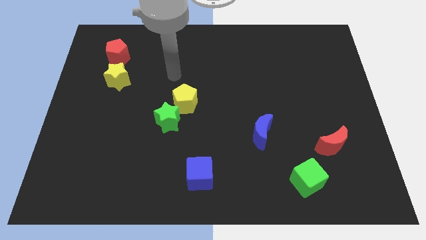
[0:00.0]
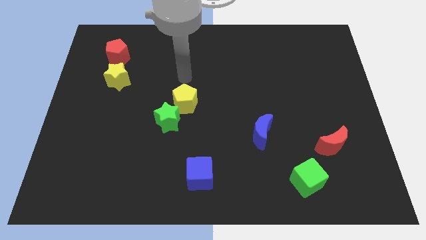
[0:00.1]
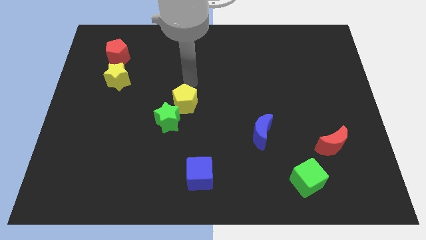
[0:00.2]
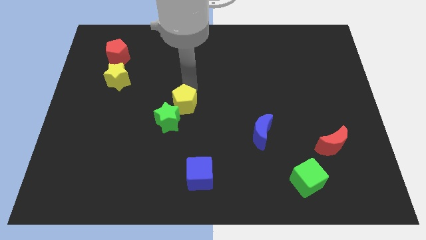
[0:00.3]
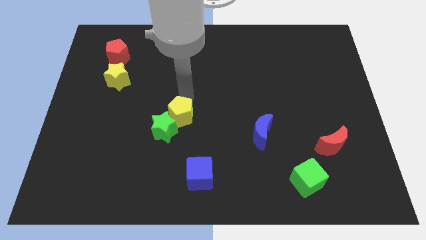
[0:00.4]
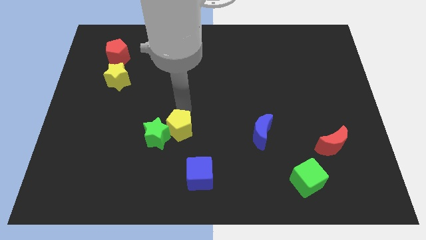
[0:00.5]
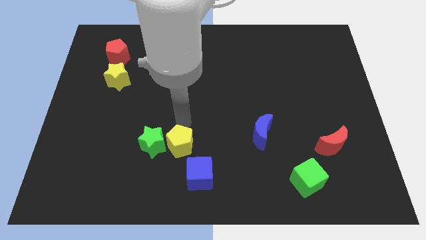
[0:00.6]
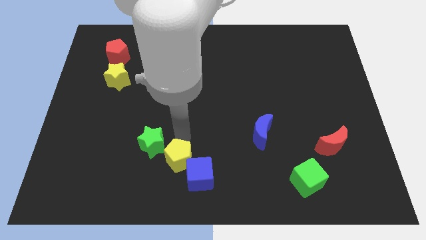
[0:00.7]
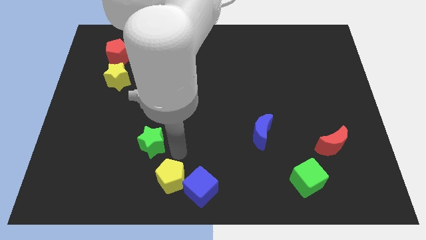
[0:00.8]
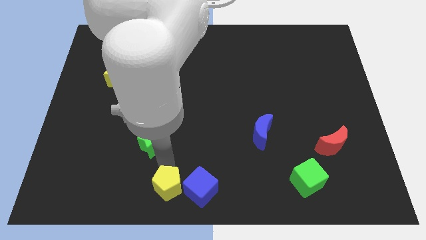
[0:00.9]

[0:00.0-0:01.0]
pull the green star apart from the yellow pentagon

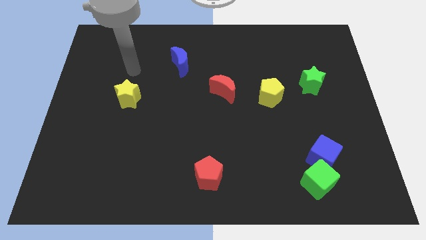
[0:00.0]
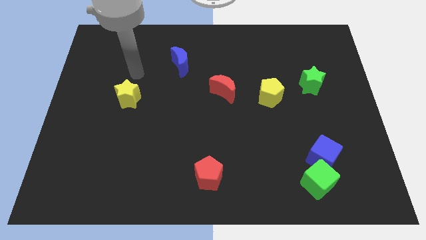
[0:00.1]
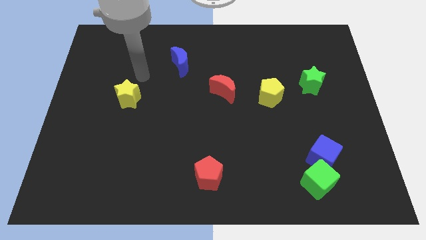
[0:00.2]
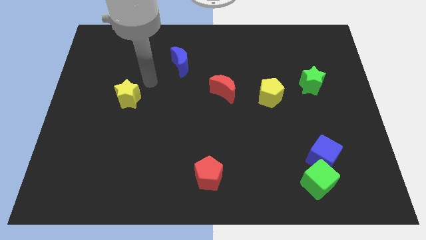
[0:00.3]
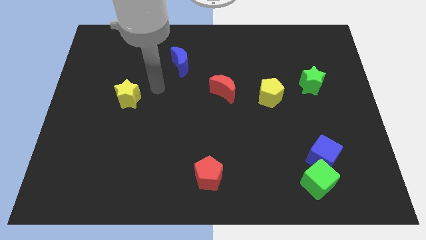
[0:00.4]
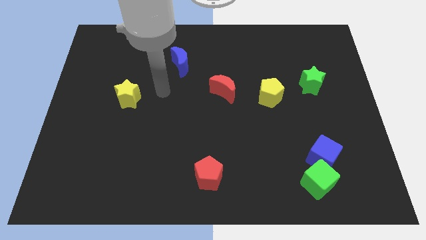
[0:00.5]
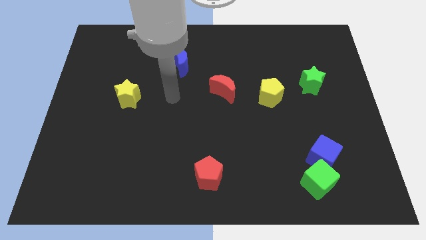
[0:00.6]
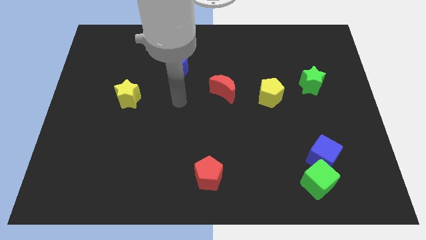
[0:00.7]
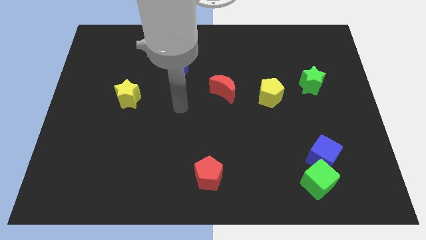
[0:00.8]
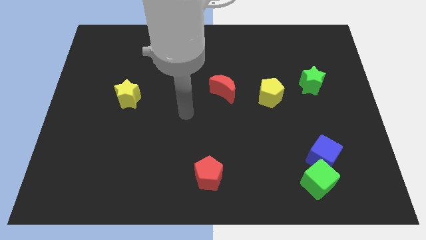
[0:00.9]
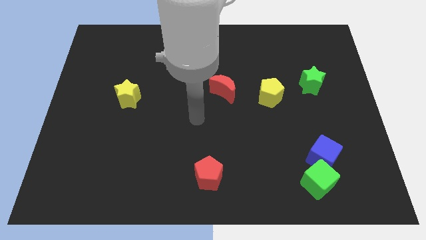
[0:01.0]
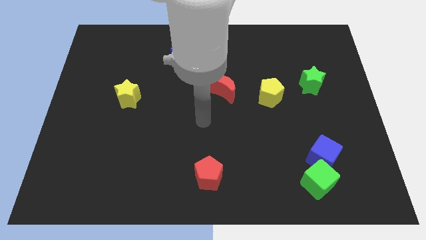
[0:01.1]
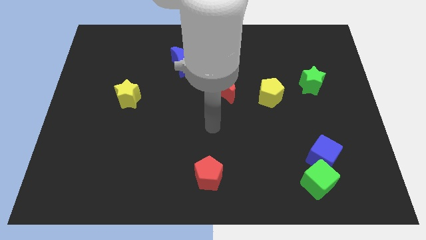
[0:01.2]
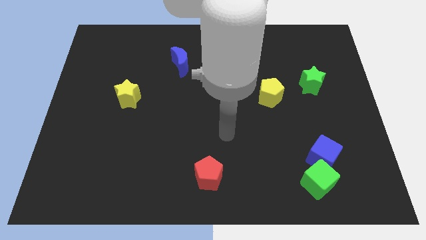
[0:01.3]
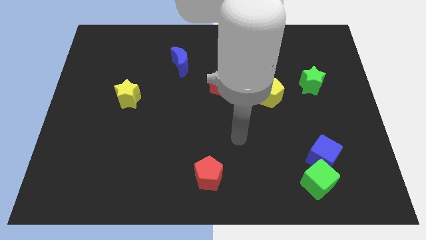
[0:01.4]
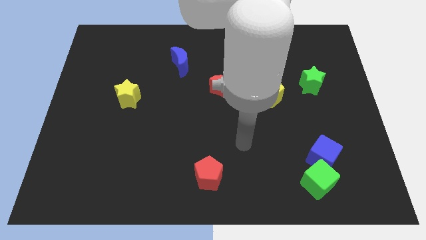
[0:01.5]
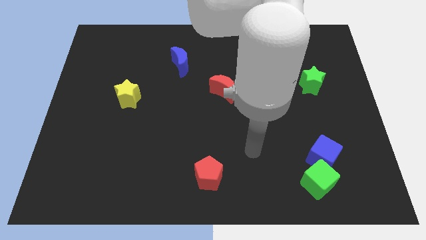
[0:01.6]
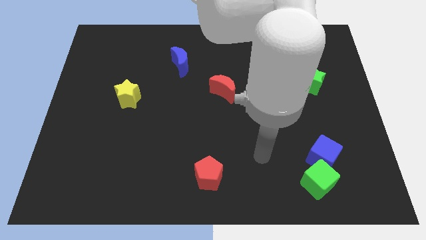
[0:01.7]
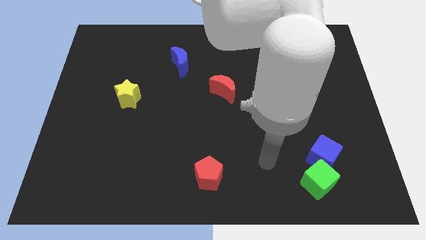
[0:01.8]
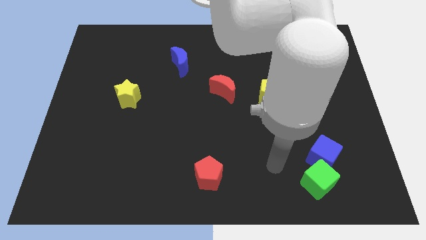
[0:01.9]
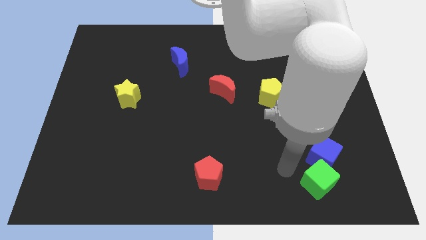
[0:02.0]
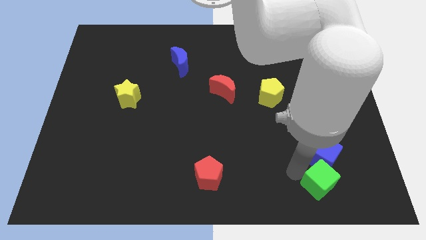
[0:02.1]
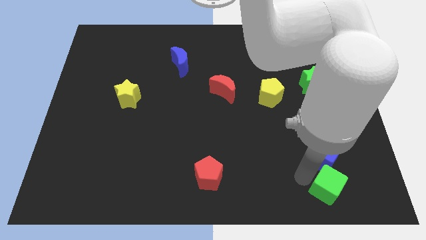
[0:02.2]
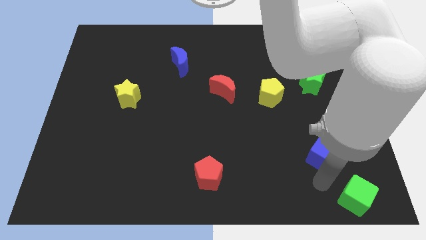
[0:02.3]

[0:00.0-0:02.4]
pull the blue cube apart from the green cube

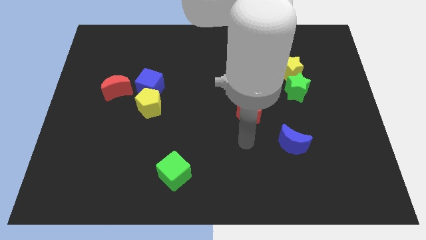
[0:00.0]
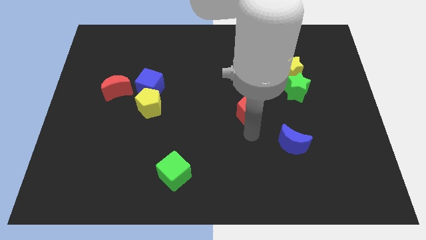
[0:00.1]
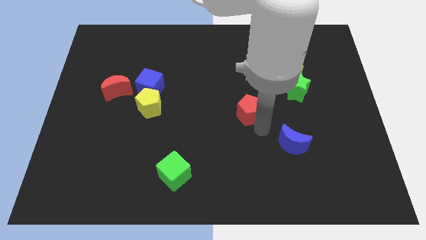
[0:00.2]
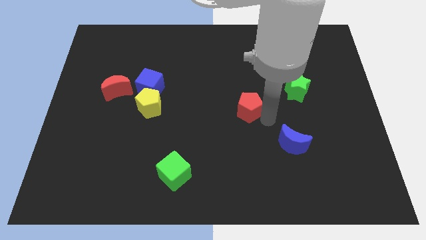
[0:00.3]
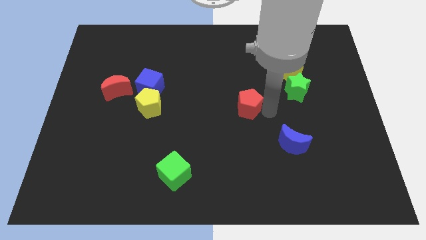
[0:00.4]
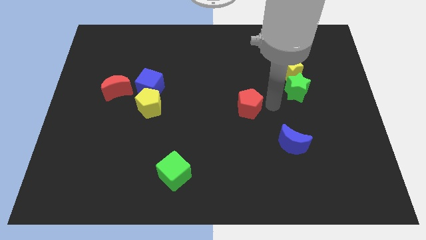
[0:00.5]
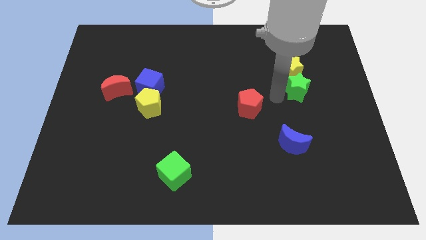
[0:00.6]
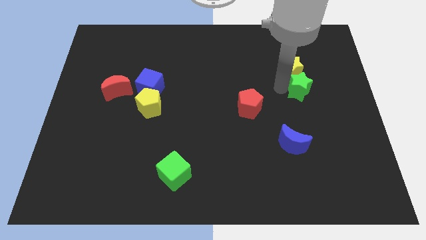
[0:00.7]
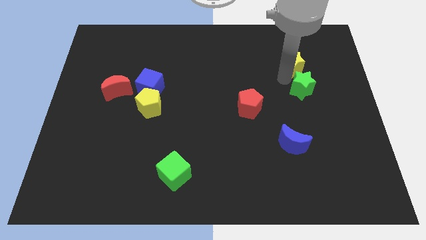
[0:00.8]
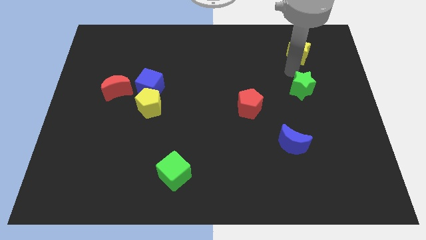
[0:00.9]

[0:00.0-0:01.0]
move the green star away from the yellow star

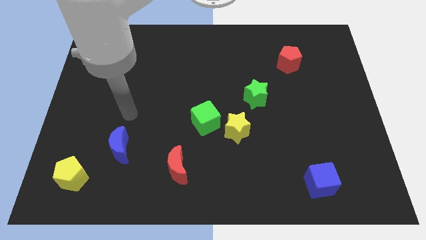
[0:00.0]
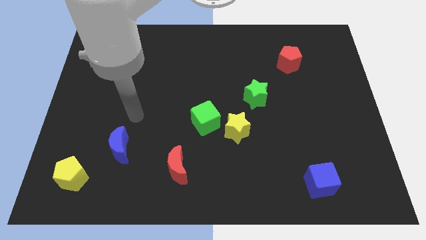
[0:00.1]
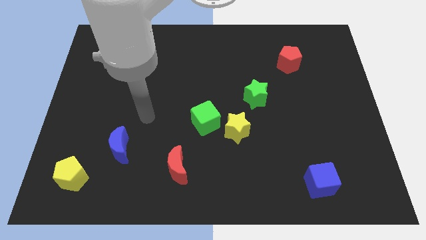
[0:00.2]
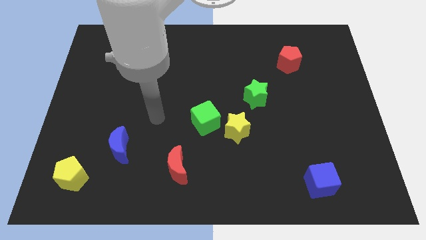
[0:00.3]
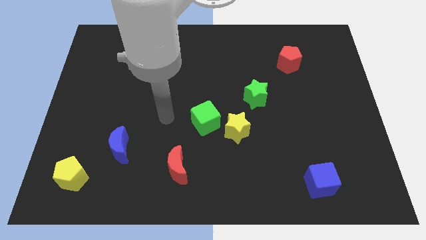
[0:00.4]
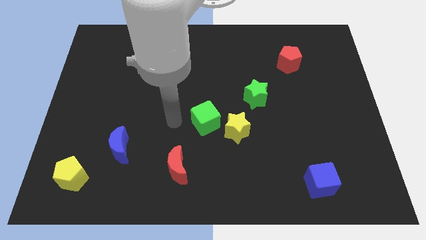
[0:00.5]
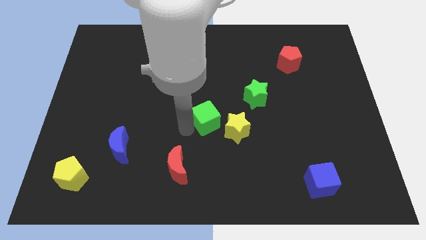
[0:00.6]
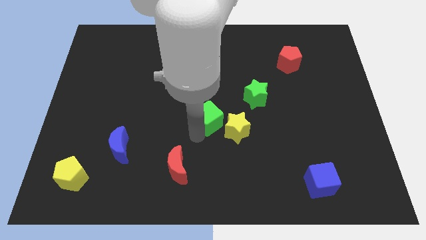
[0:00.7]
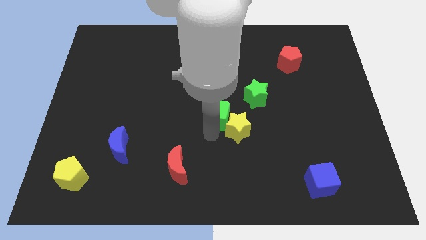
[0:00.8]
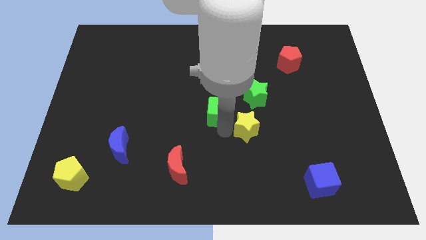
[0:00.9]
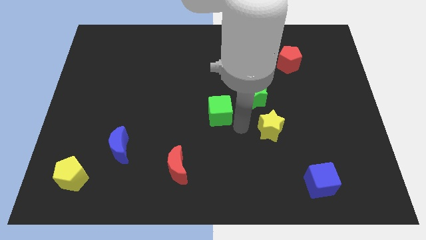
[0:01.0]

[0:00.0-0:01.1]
separate the green cube from the yellow star

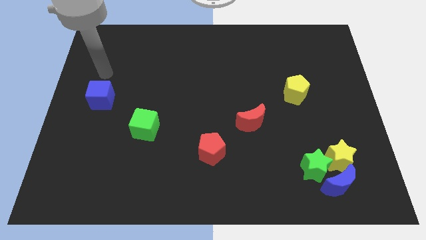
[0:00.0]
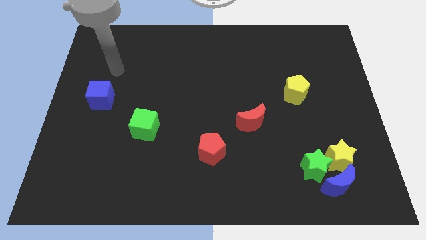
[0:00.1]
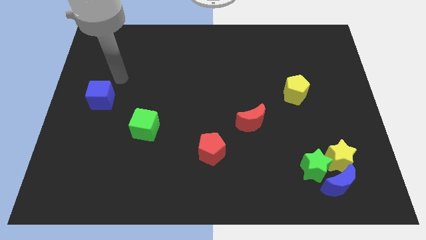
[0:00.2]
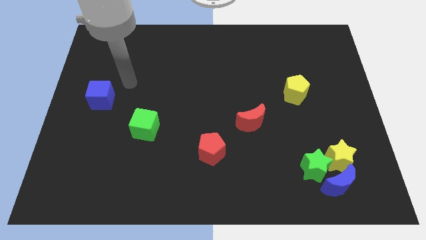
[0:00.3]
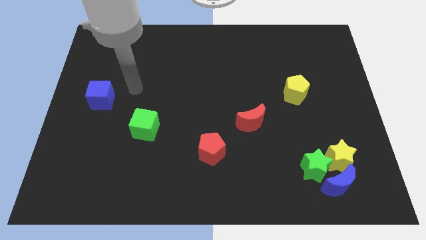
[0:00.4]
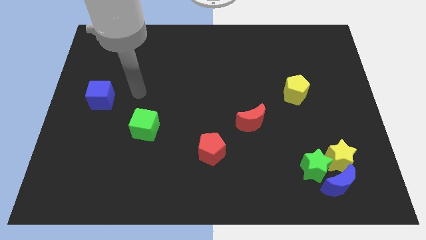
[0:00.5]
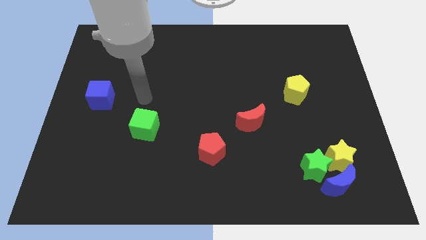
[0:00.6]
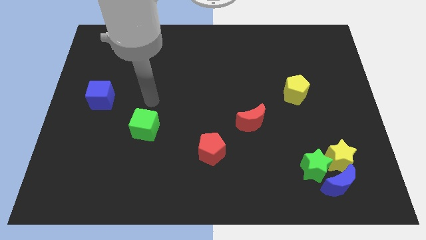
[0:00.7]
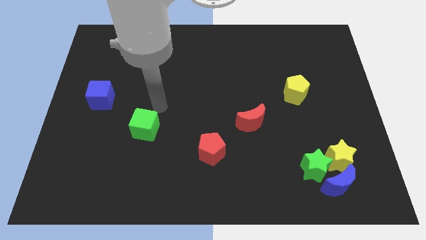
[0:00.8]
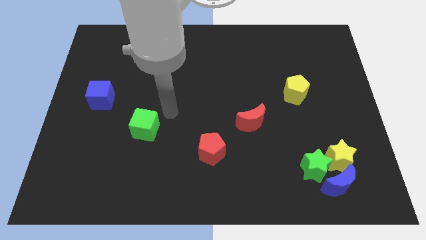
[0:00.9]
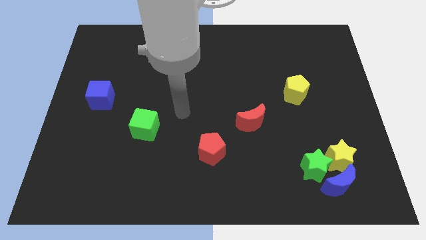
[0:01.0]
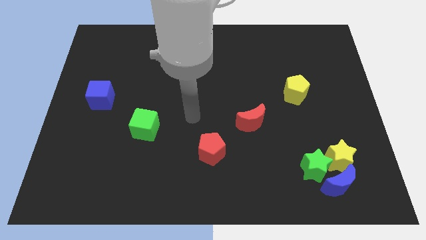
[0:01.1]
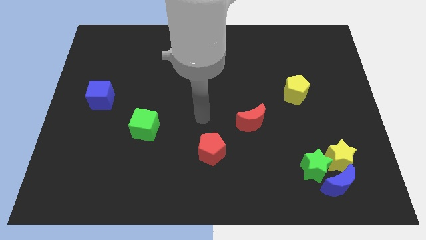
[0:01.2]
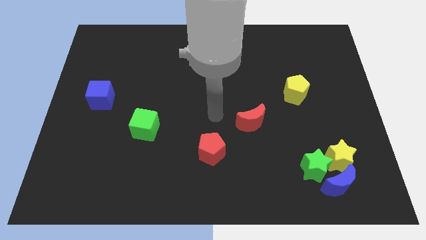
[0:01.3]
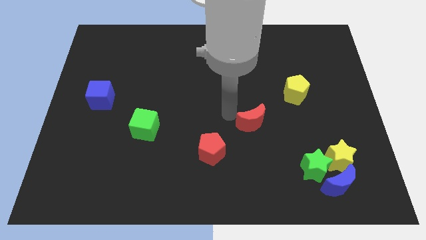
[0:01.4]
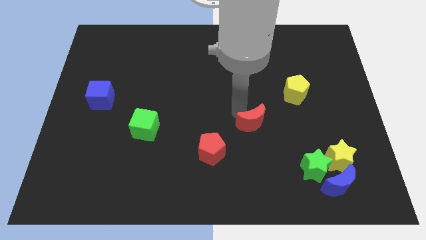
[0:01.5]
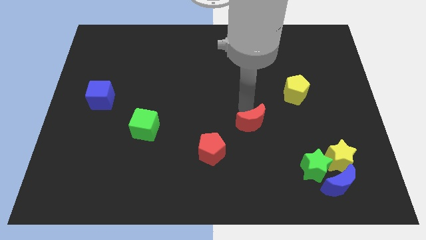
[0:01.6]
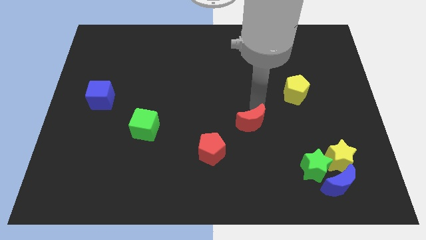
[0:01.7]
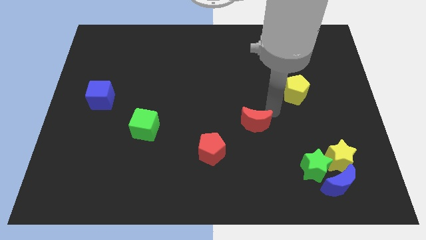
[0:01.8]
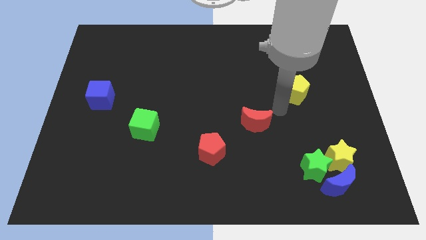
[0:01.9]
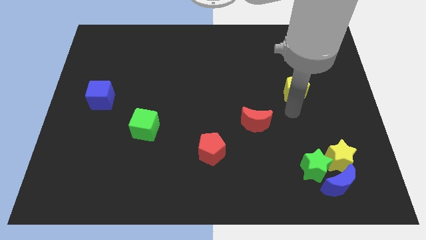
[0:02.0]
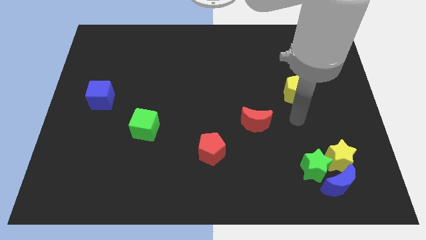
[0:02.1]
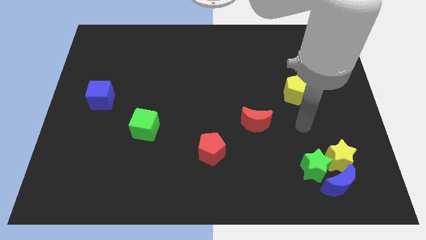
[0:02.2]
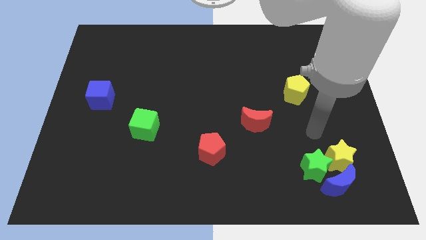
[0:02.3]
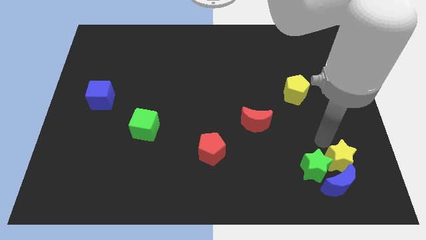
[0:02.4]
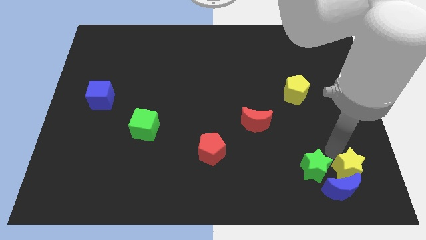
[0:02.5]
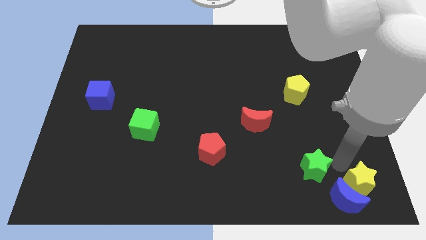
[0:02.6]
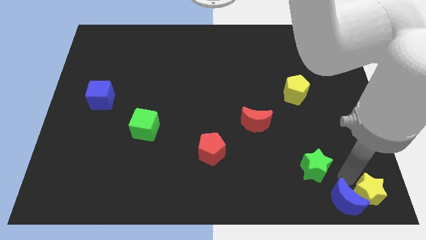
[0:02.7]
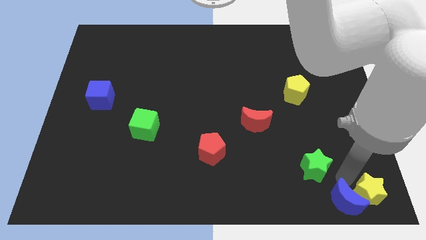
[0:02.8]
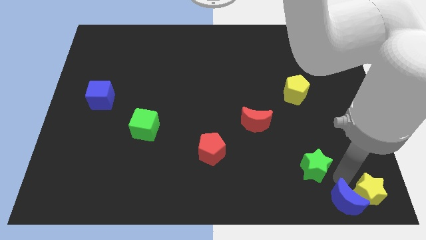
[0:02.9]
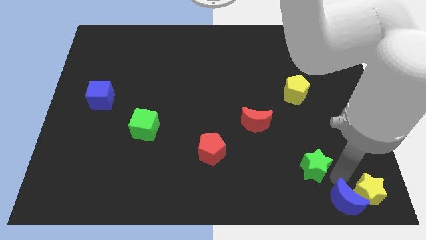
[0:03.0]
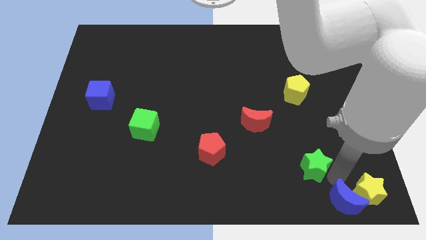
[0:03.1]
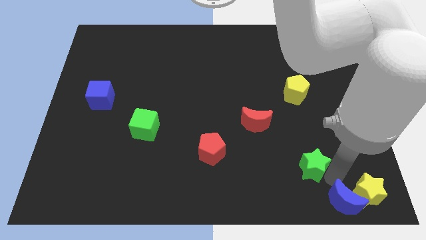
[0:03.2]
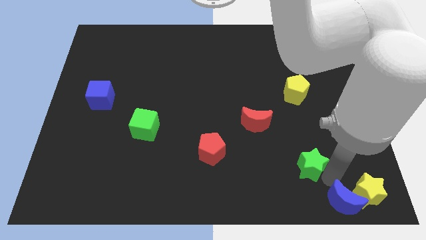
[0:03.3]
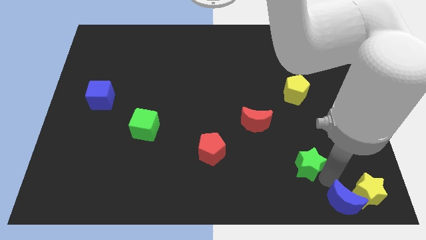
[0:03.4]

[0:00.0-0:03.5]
move the green star away from the blue moon and yellow star

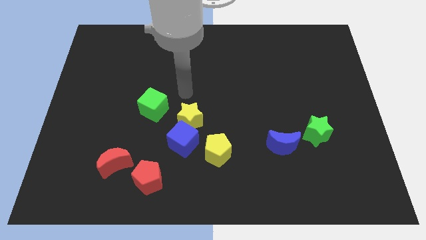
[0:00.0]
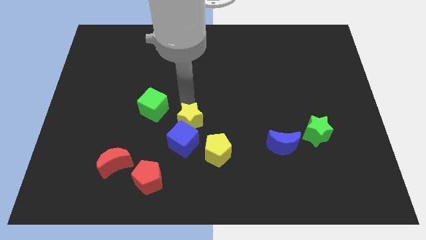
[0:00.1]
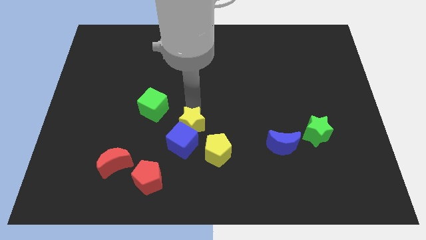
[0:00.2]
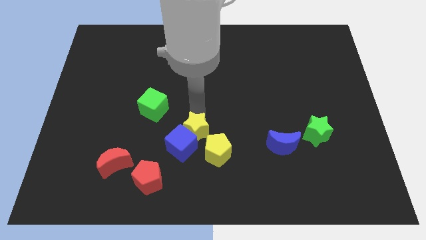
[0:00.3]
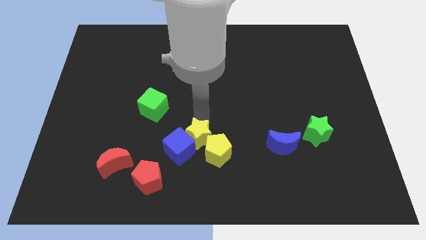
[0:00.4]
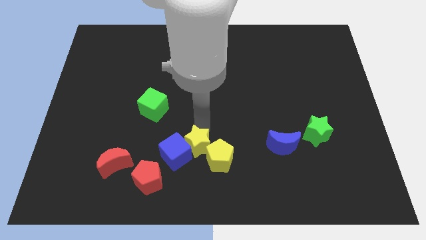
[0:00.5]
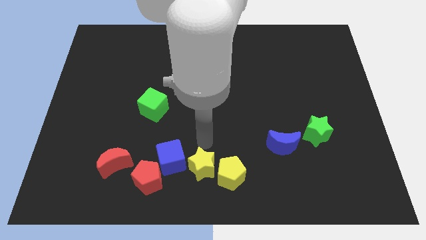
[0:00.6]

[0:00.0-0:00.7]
pull the blue cube apart from the yellow star and yellow pentagon
